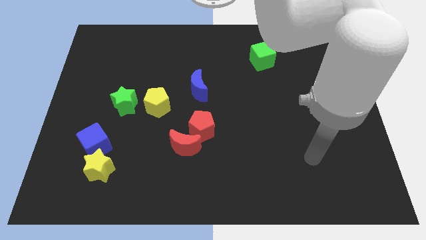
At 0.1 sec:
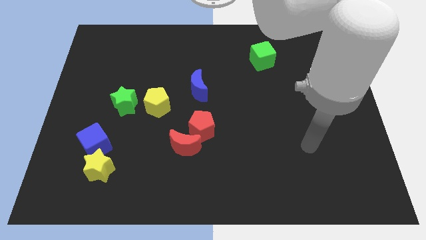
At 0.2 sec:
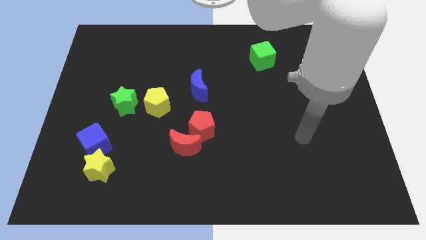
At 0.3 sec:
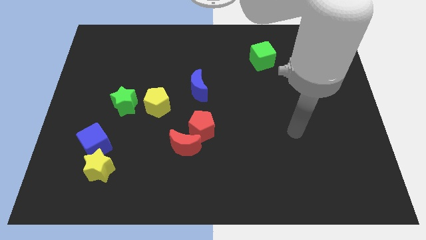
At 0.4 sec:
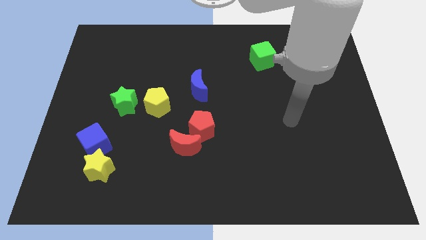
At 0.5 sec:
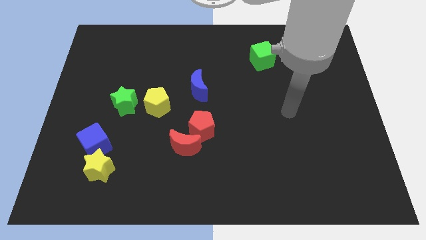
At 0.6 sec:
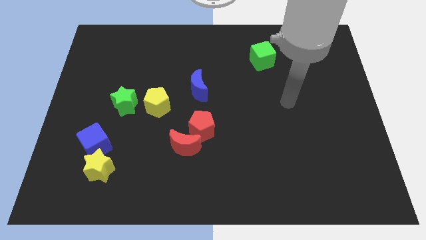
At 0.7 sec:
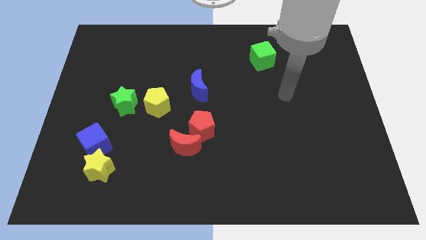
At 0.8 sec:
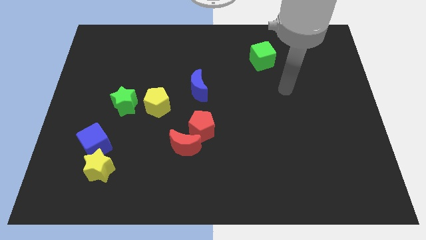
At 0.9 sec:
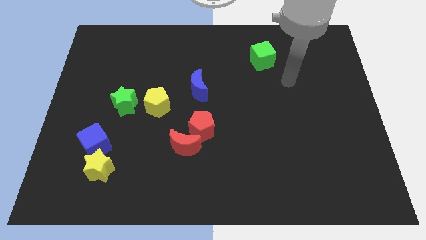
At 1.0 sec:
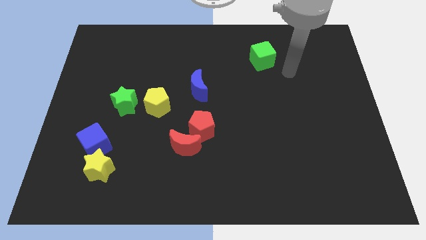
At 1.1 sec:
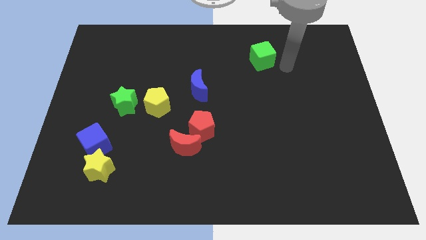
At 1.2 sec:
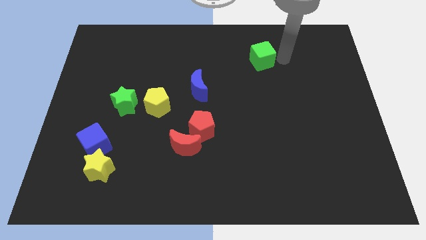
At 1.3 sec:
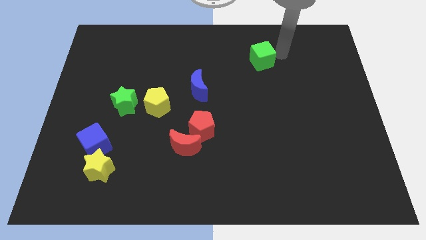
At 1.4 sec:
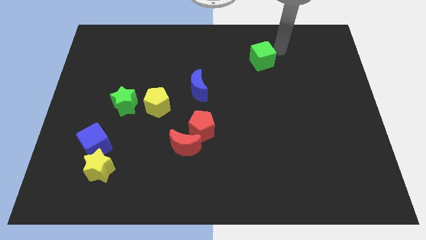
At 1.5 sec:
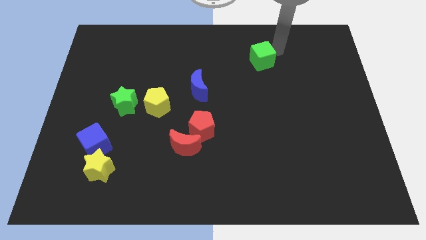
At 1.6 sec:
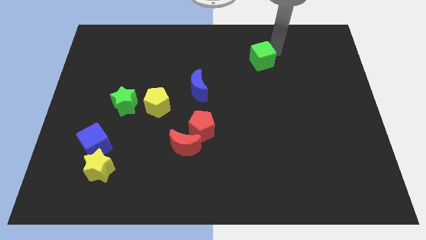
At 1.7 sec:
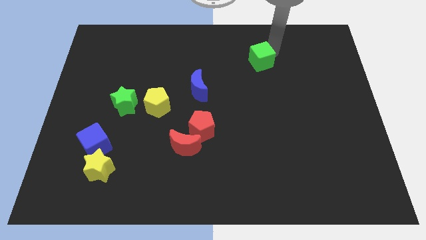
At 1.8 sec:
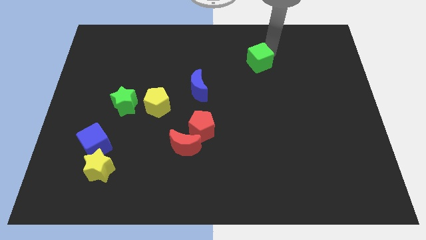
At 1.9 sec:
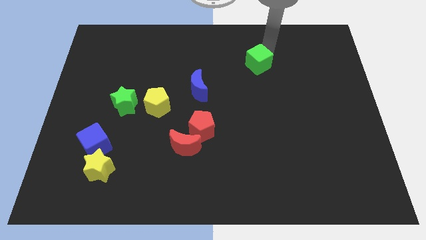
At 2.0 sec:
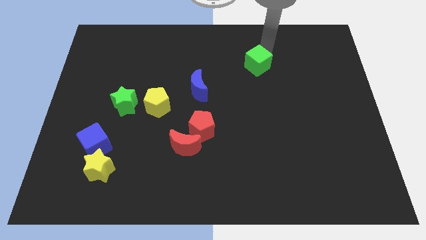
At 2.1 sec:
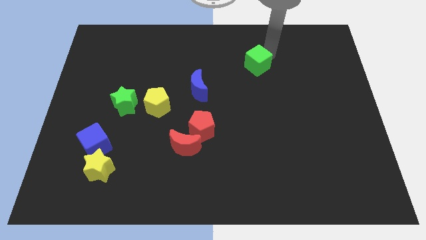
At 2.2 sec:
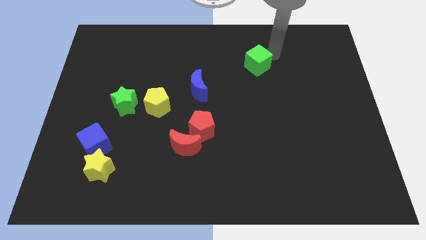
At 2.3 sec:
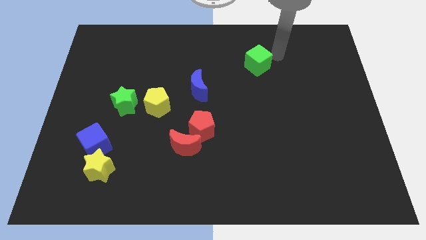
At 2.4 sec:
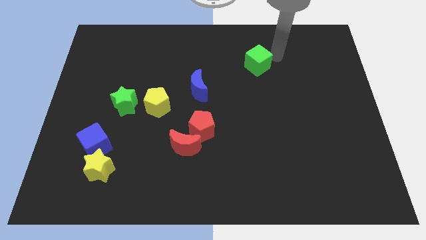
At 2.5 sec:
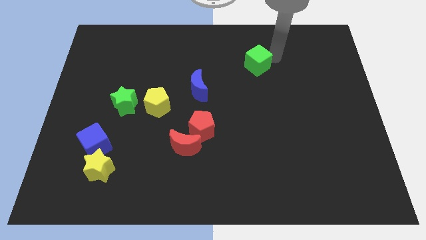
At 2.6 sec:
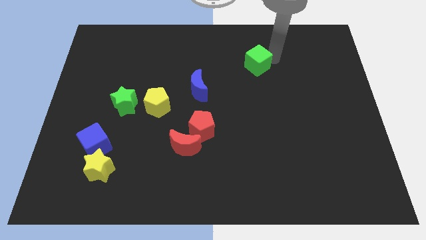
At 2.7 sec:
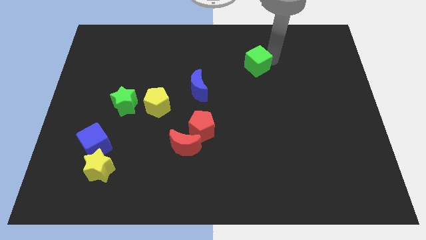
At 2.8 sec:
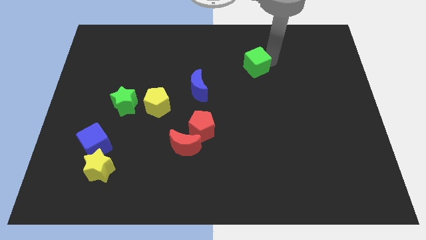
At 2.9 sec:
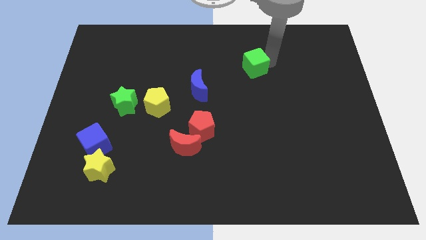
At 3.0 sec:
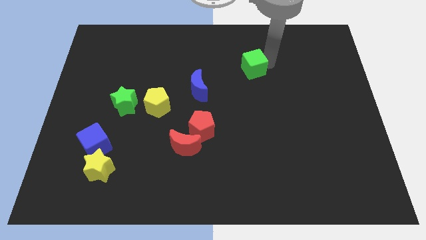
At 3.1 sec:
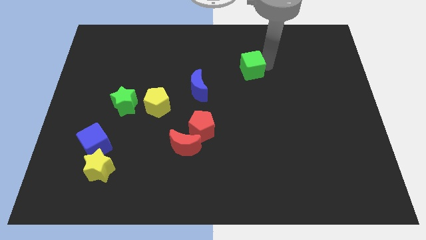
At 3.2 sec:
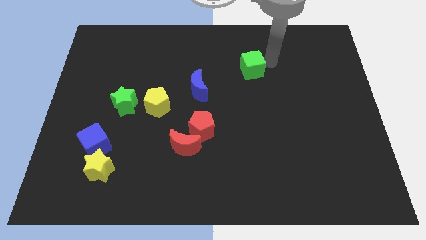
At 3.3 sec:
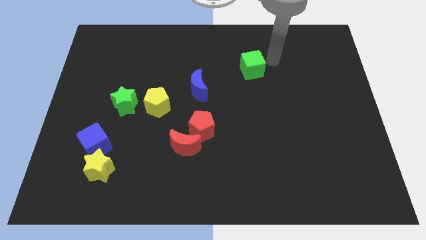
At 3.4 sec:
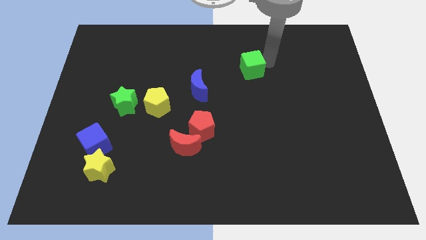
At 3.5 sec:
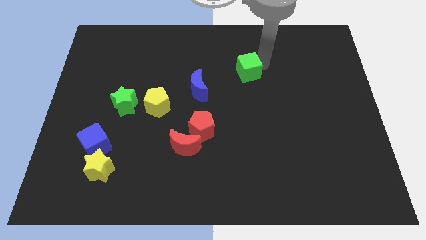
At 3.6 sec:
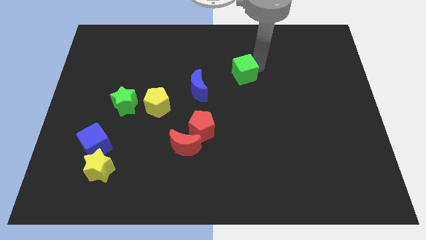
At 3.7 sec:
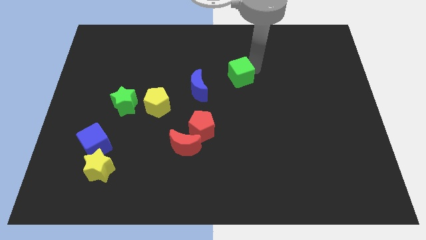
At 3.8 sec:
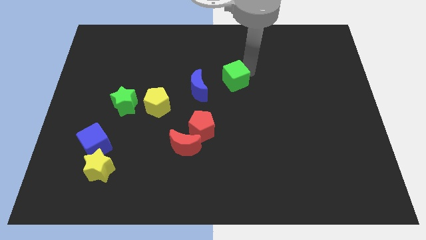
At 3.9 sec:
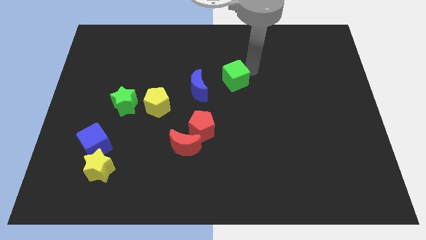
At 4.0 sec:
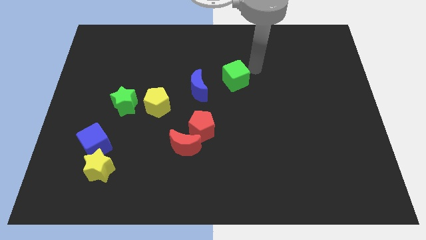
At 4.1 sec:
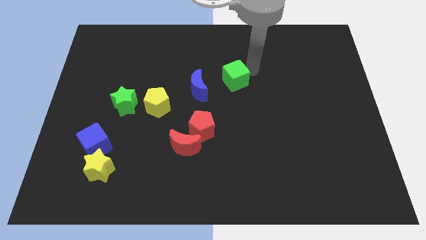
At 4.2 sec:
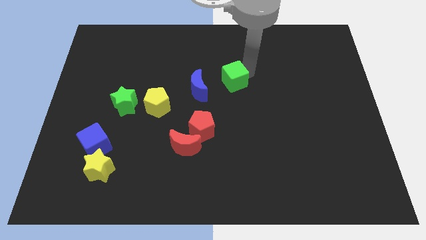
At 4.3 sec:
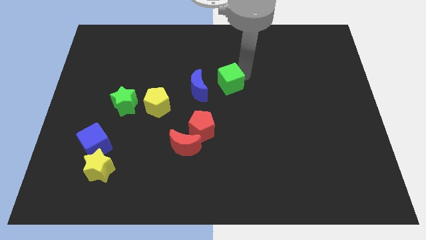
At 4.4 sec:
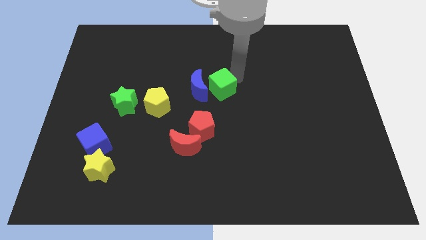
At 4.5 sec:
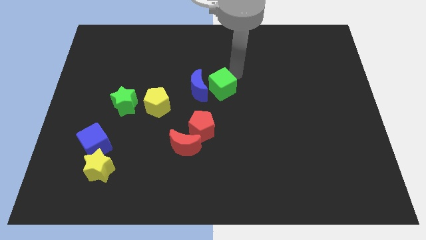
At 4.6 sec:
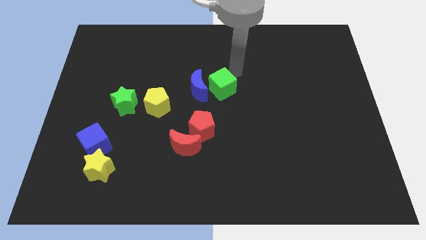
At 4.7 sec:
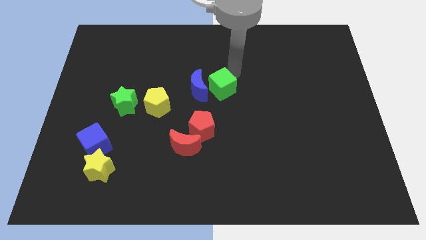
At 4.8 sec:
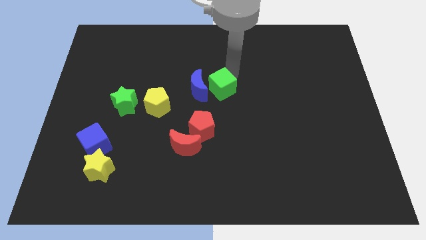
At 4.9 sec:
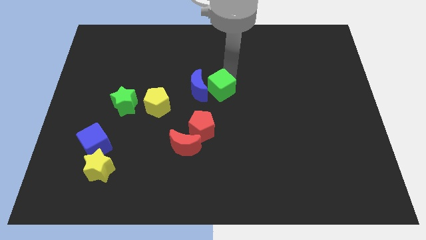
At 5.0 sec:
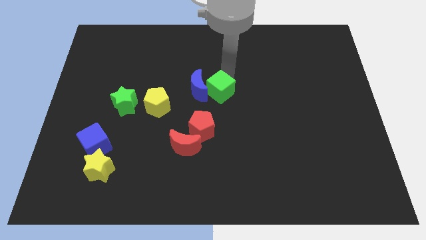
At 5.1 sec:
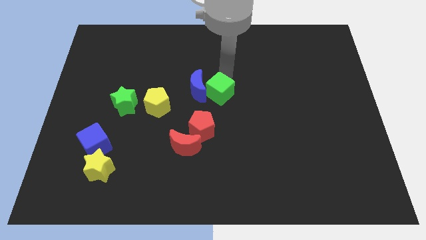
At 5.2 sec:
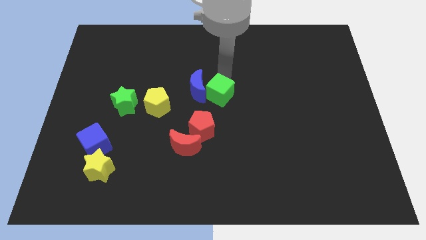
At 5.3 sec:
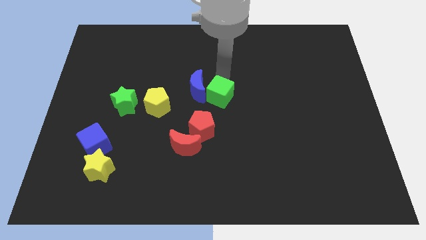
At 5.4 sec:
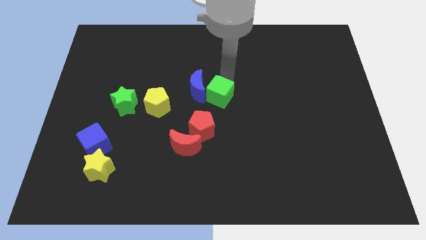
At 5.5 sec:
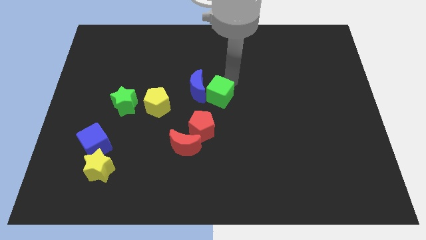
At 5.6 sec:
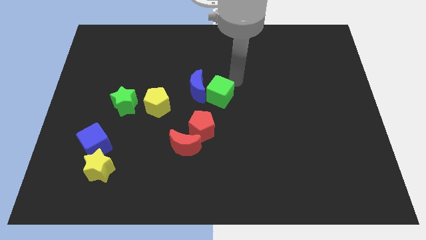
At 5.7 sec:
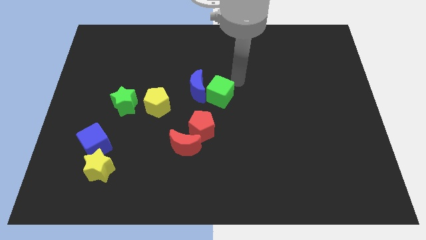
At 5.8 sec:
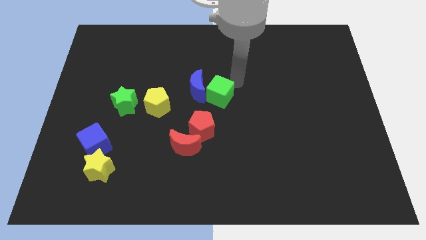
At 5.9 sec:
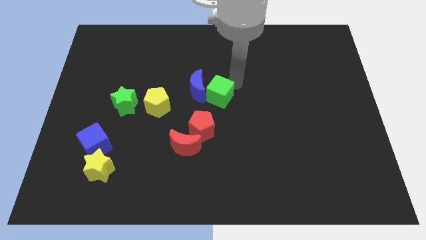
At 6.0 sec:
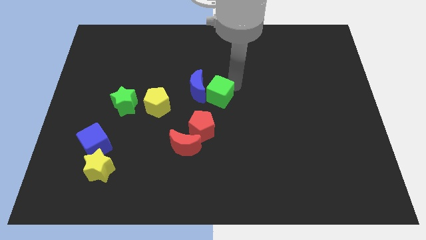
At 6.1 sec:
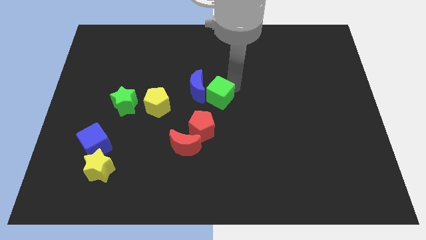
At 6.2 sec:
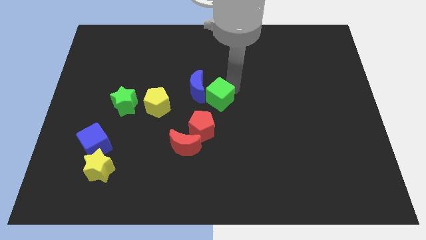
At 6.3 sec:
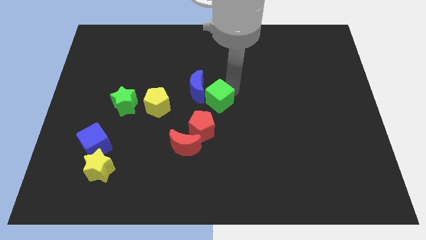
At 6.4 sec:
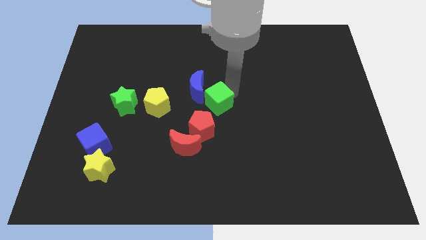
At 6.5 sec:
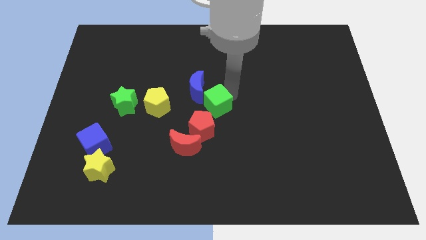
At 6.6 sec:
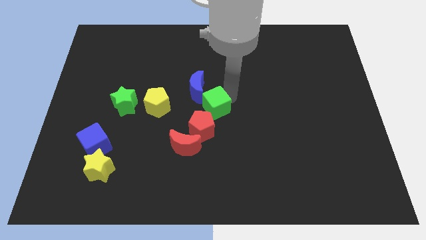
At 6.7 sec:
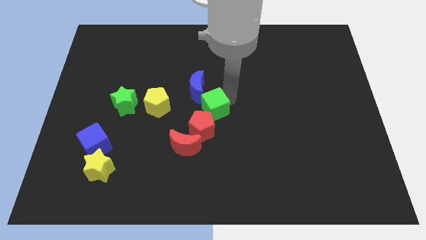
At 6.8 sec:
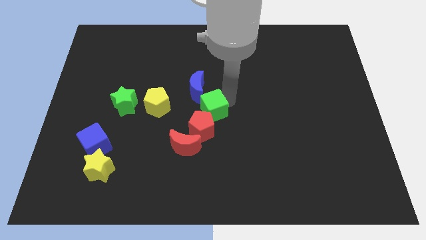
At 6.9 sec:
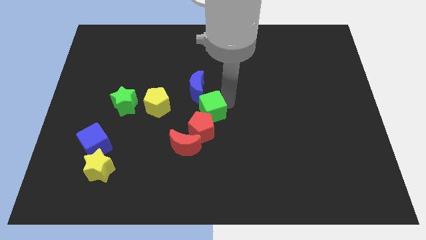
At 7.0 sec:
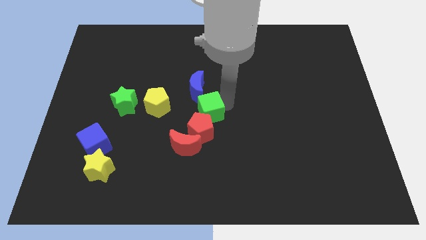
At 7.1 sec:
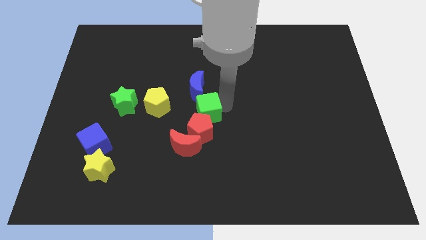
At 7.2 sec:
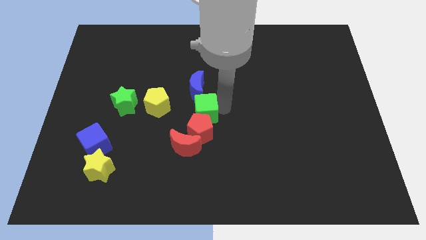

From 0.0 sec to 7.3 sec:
put the green cube to the top left of the red pentagon
